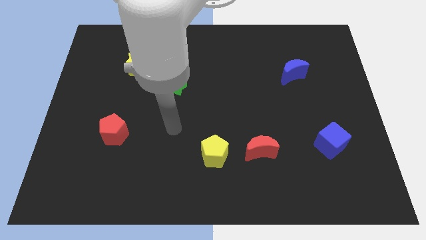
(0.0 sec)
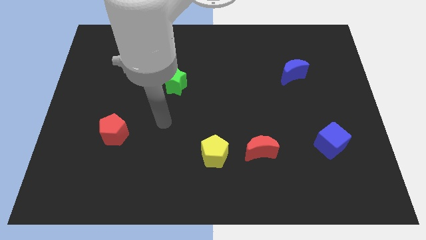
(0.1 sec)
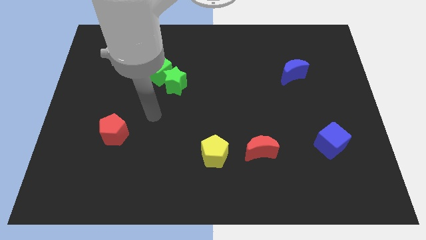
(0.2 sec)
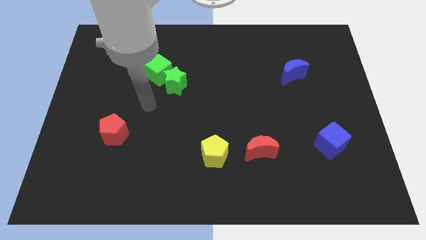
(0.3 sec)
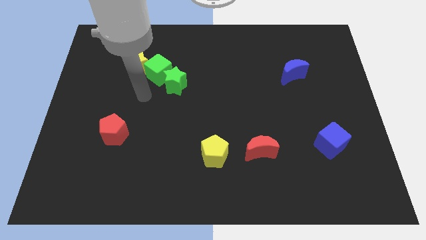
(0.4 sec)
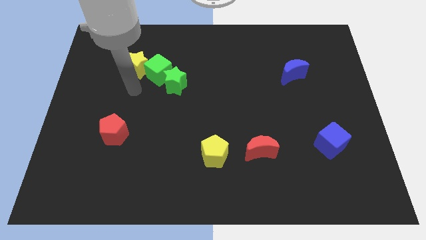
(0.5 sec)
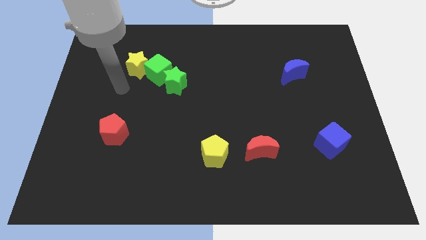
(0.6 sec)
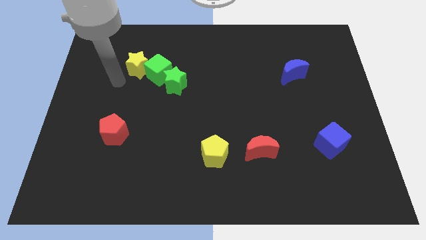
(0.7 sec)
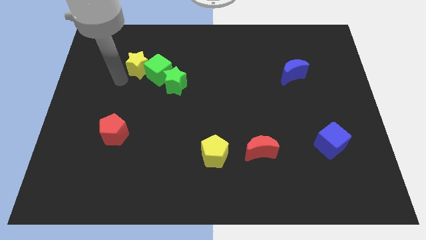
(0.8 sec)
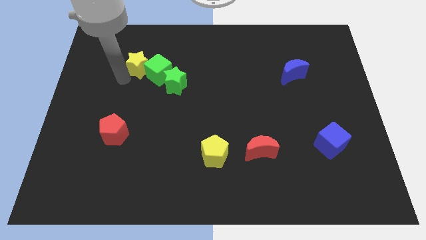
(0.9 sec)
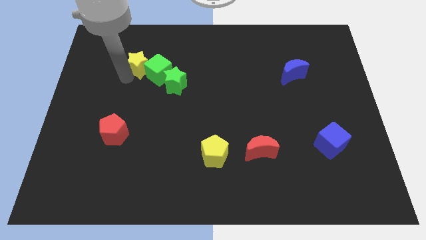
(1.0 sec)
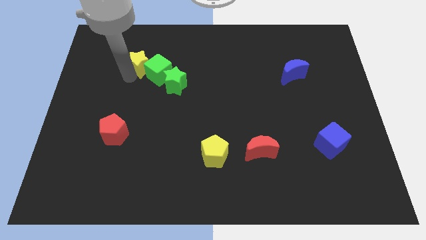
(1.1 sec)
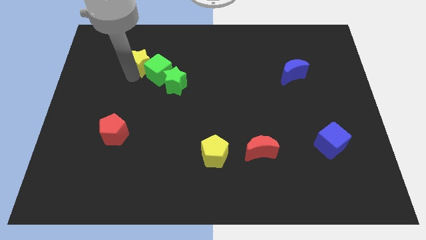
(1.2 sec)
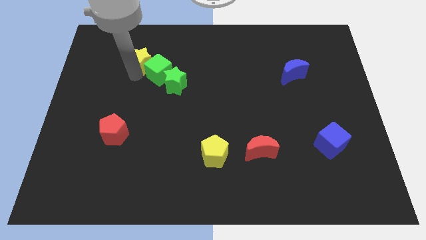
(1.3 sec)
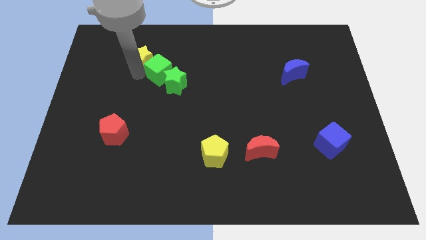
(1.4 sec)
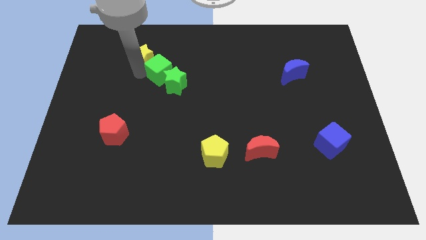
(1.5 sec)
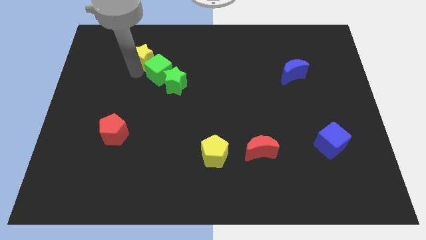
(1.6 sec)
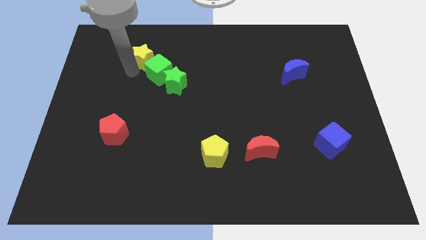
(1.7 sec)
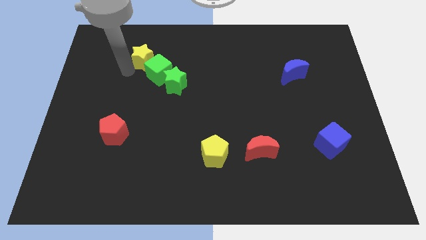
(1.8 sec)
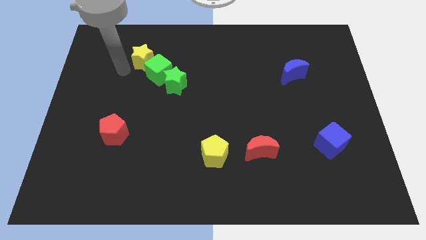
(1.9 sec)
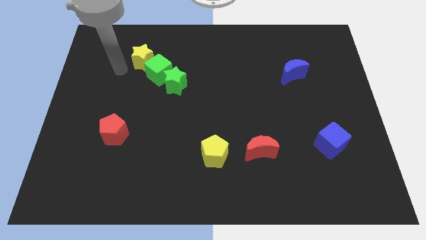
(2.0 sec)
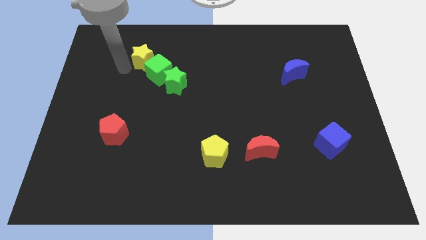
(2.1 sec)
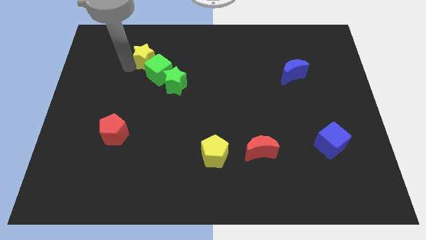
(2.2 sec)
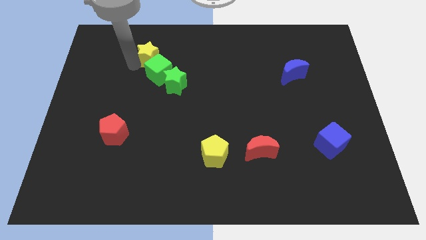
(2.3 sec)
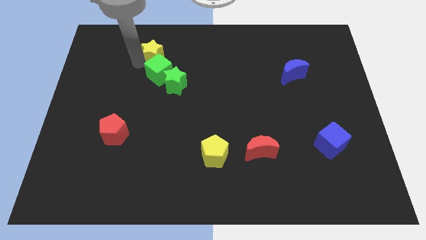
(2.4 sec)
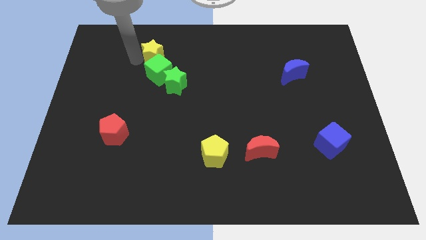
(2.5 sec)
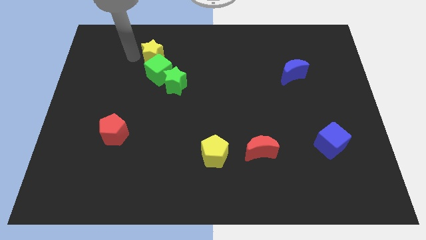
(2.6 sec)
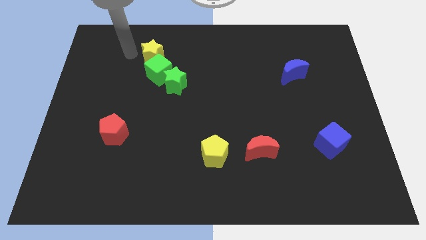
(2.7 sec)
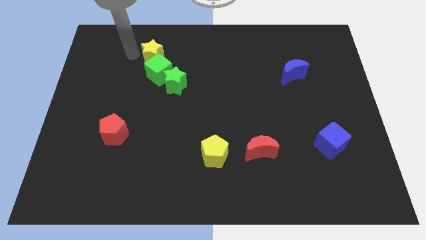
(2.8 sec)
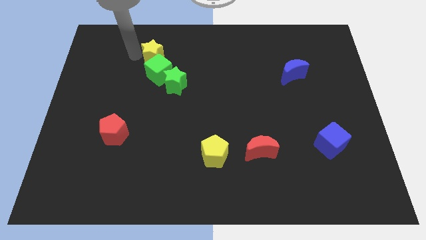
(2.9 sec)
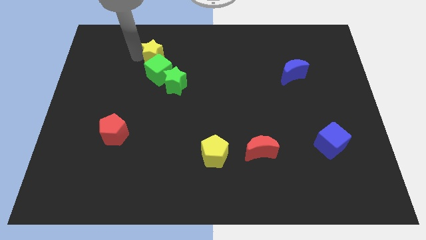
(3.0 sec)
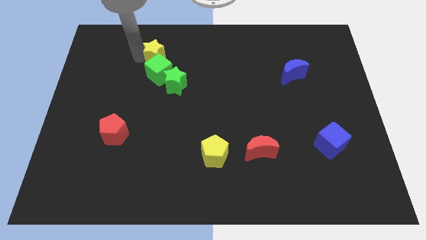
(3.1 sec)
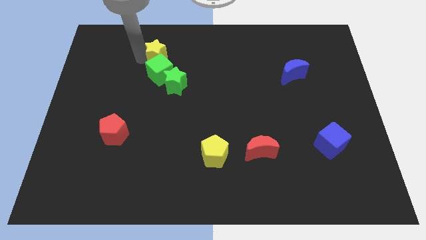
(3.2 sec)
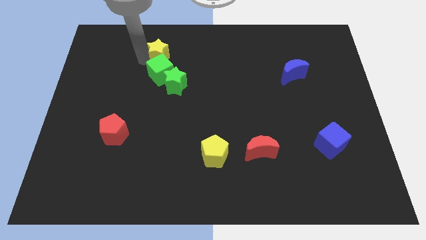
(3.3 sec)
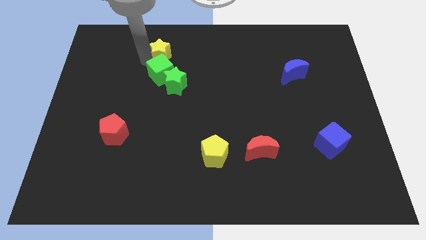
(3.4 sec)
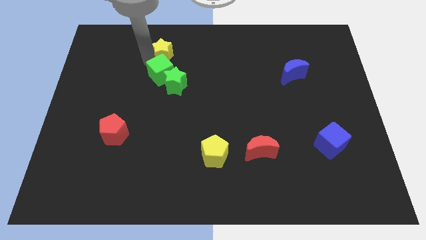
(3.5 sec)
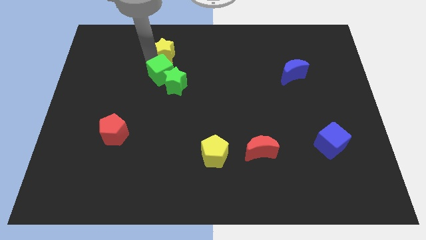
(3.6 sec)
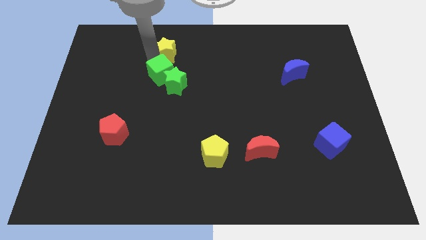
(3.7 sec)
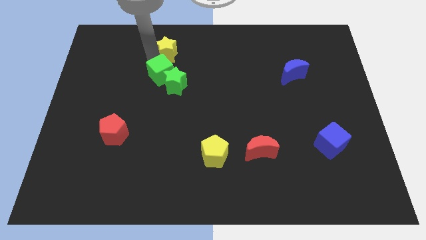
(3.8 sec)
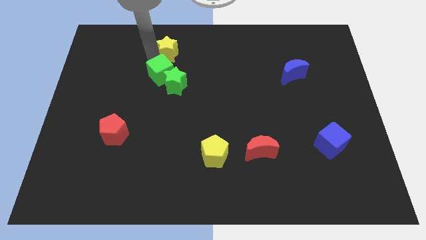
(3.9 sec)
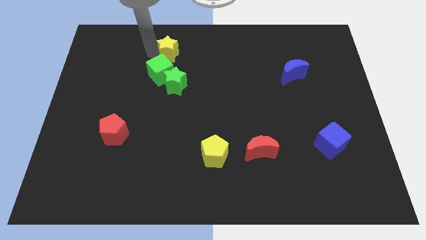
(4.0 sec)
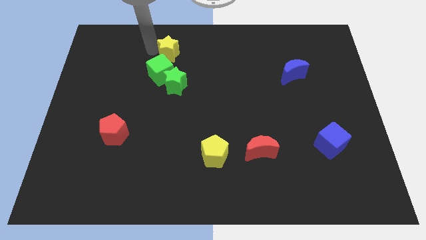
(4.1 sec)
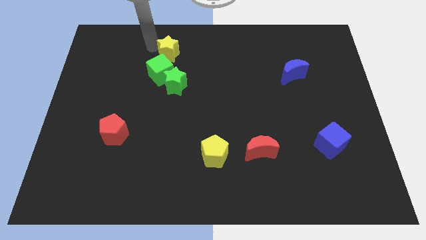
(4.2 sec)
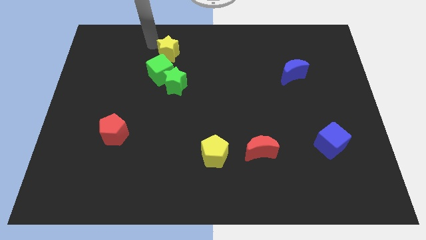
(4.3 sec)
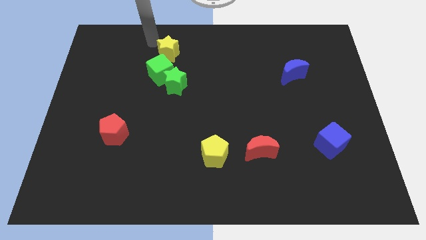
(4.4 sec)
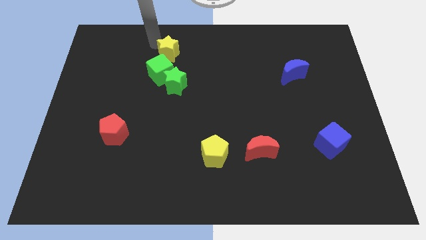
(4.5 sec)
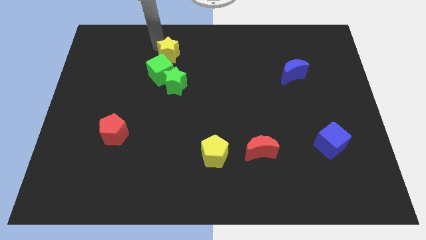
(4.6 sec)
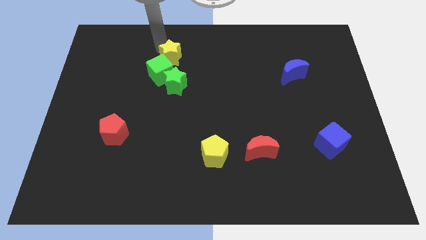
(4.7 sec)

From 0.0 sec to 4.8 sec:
move the yellow star slightly right

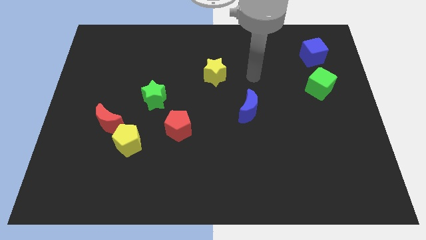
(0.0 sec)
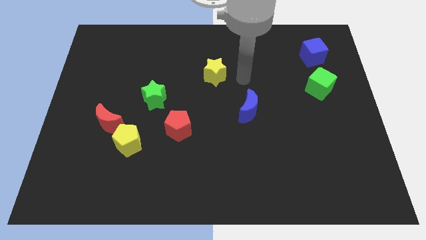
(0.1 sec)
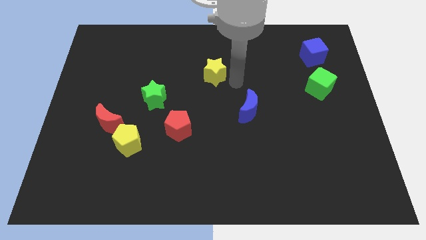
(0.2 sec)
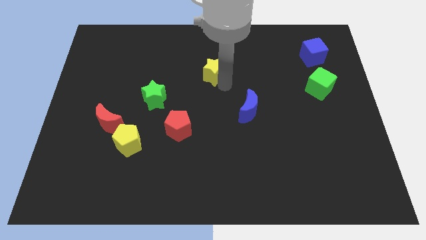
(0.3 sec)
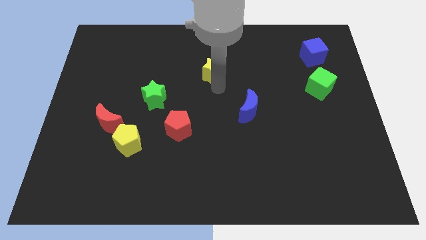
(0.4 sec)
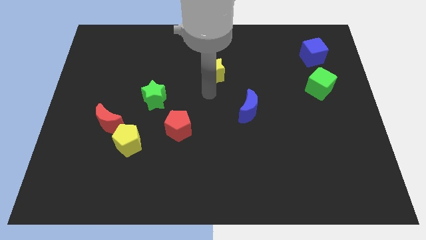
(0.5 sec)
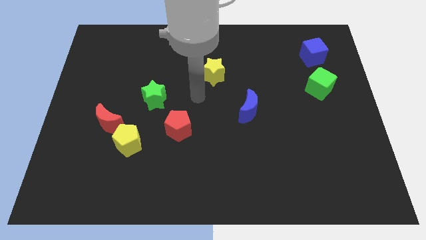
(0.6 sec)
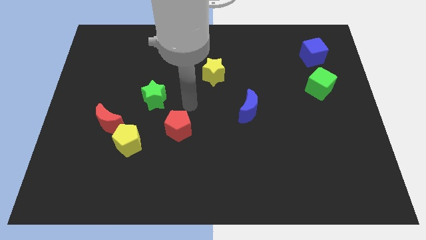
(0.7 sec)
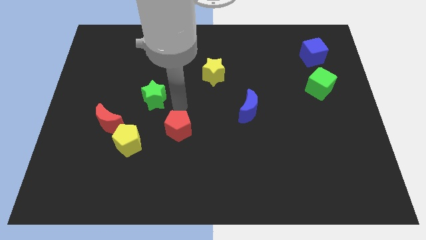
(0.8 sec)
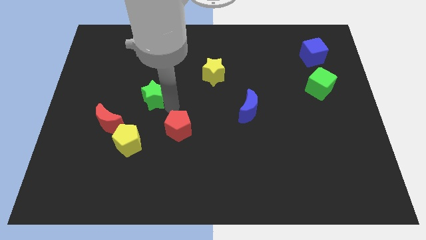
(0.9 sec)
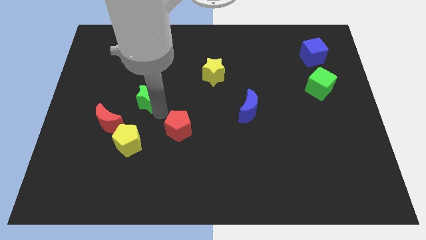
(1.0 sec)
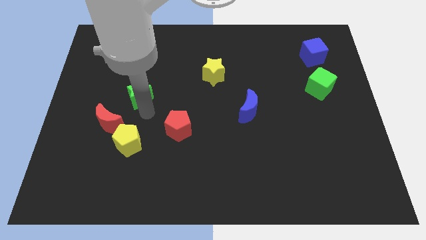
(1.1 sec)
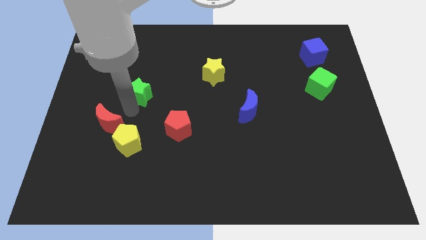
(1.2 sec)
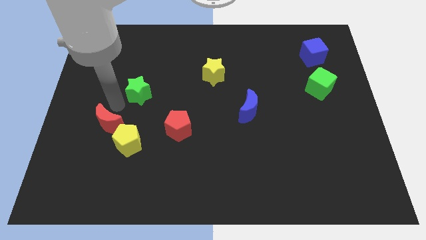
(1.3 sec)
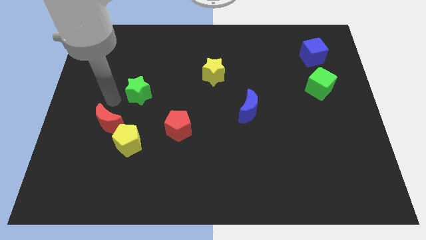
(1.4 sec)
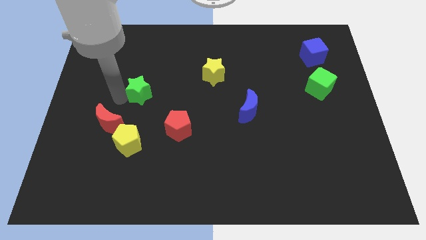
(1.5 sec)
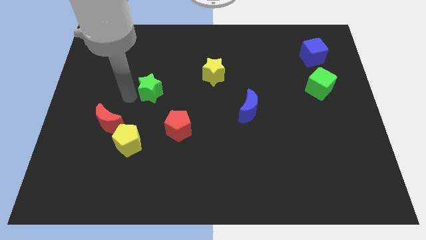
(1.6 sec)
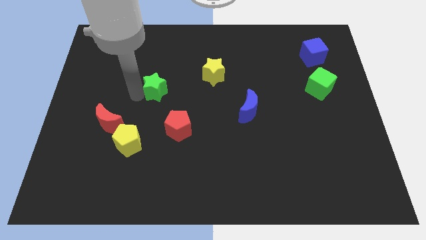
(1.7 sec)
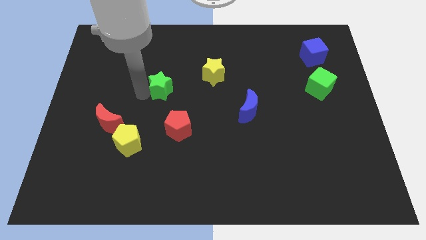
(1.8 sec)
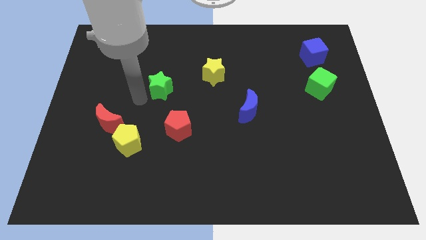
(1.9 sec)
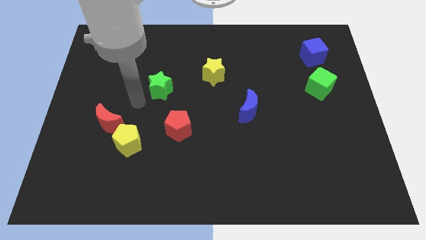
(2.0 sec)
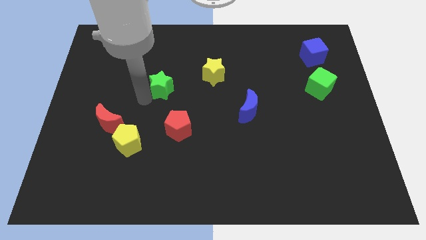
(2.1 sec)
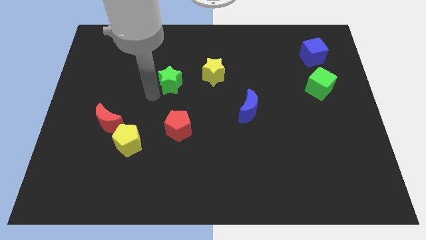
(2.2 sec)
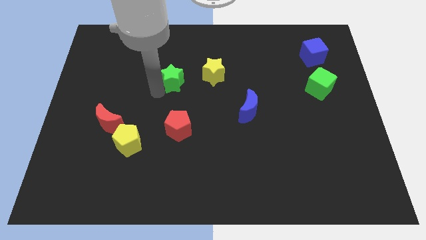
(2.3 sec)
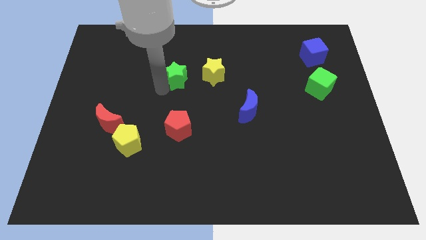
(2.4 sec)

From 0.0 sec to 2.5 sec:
slightly slide the green star upwards and then right

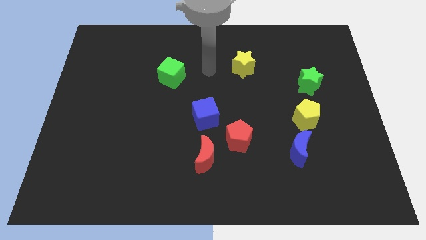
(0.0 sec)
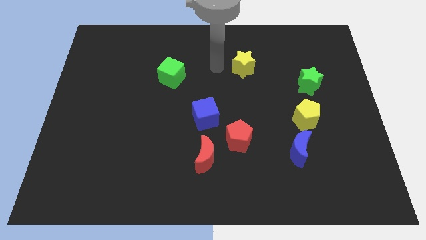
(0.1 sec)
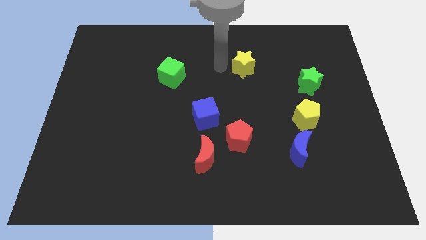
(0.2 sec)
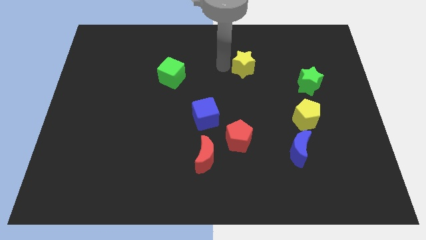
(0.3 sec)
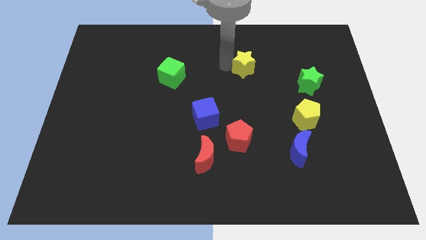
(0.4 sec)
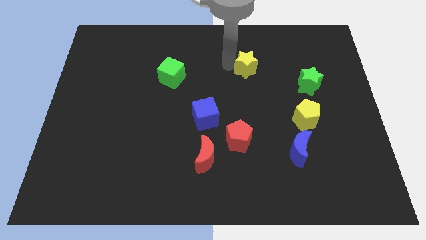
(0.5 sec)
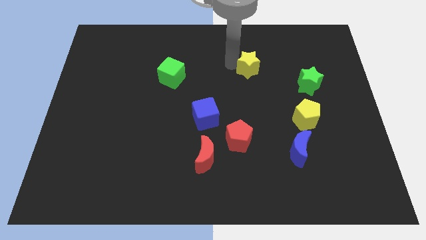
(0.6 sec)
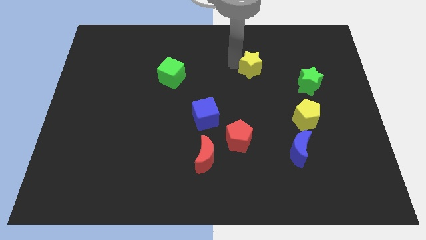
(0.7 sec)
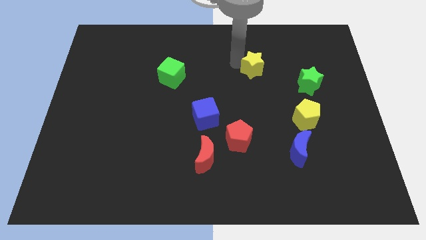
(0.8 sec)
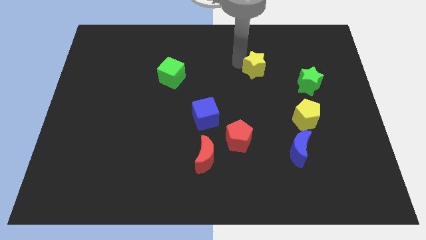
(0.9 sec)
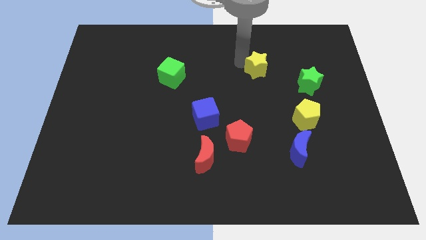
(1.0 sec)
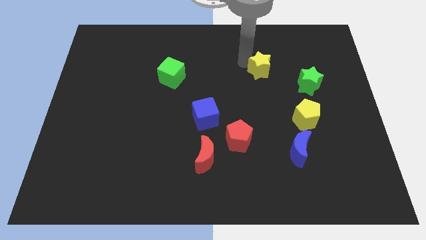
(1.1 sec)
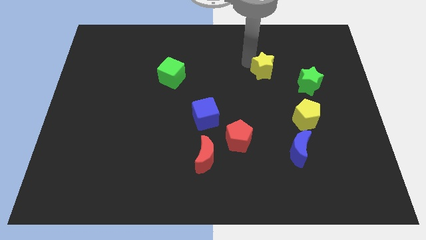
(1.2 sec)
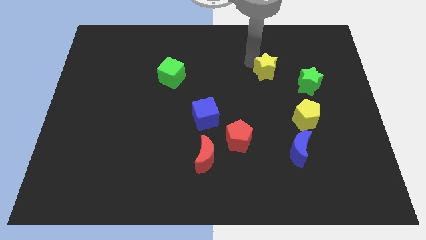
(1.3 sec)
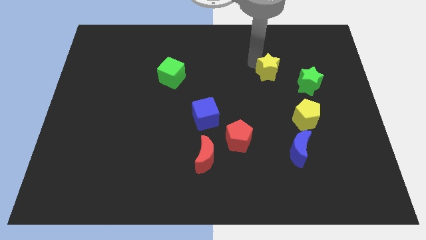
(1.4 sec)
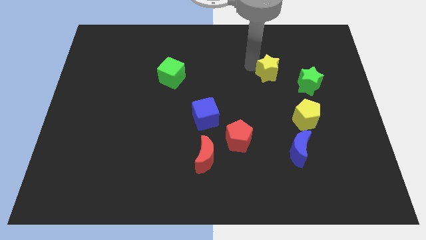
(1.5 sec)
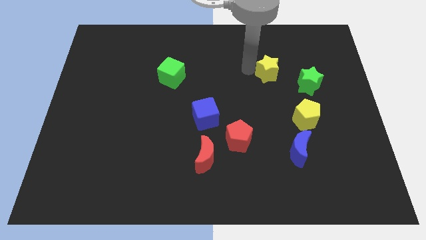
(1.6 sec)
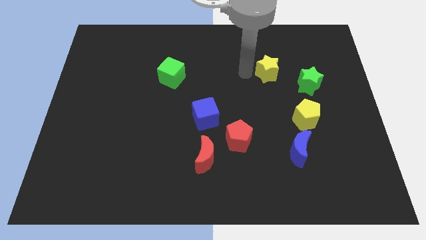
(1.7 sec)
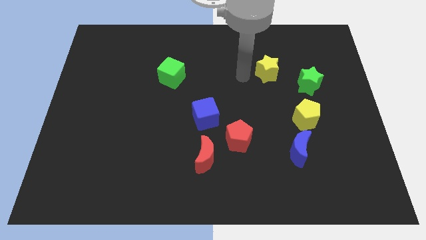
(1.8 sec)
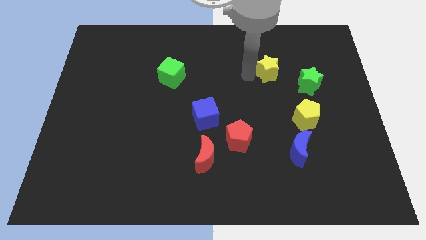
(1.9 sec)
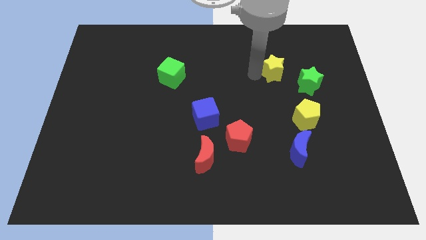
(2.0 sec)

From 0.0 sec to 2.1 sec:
move the yellow star to the right somewhat
